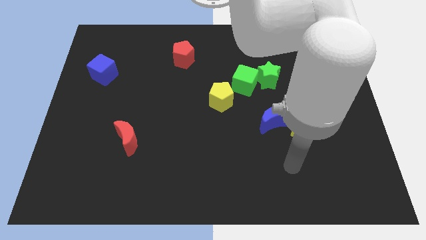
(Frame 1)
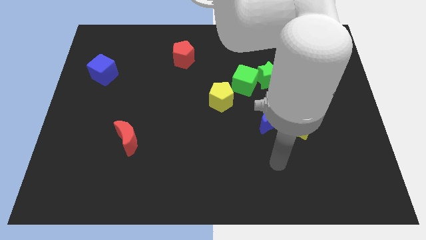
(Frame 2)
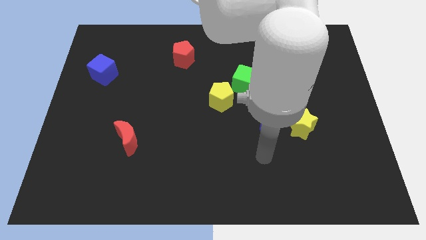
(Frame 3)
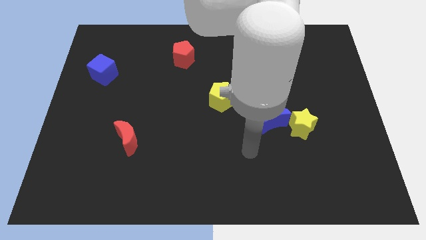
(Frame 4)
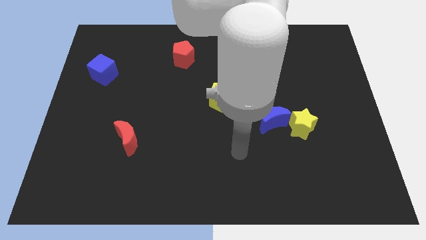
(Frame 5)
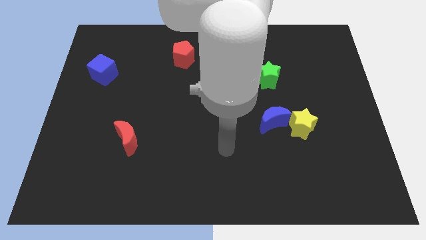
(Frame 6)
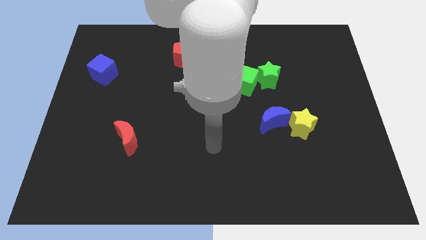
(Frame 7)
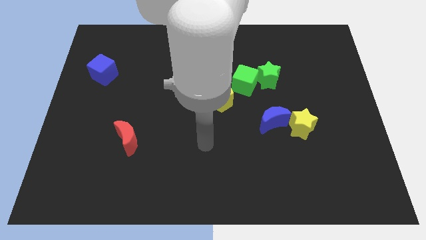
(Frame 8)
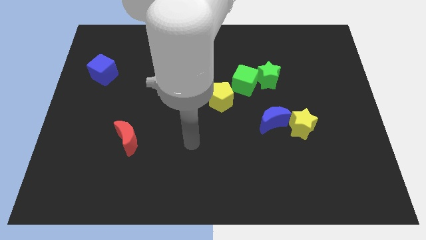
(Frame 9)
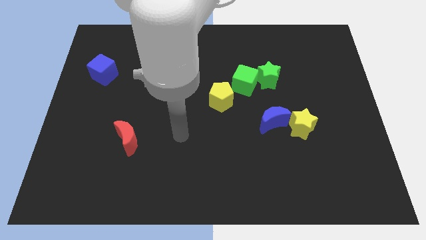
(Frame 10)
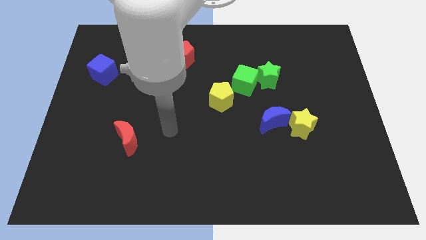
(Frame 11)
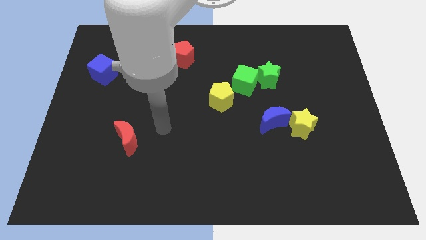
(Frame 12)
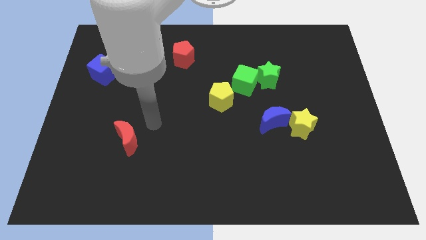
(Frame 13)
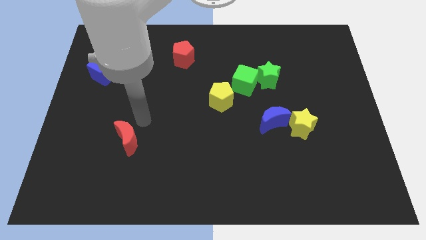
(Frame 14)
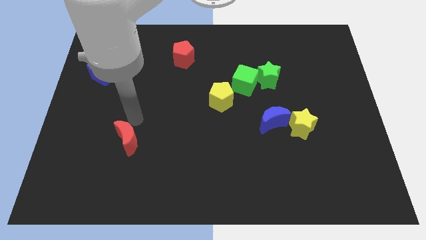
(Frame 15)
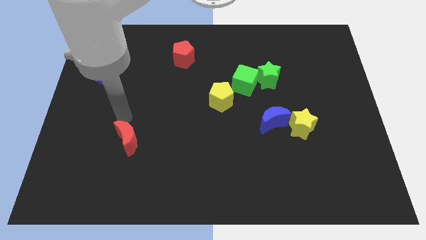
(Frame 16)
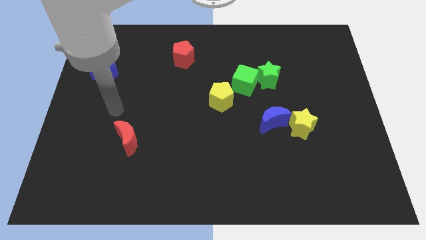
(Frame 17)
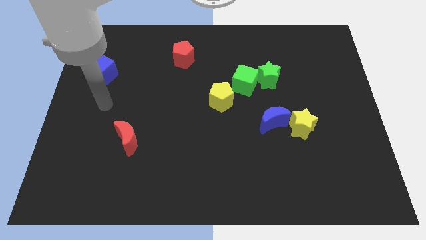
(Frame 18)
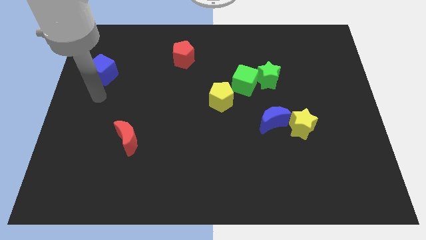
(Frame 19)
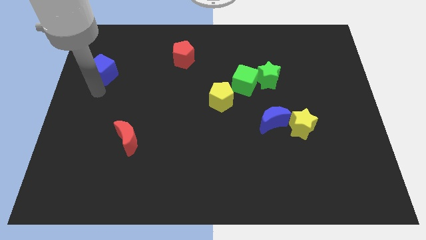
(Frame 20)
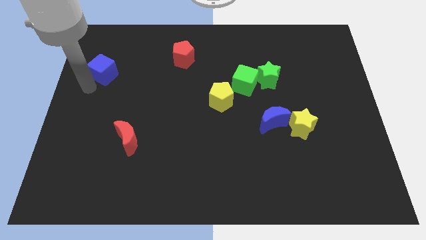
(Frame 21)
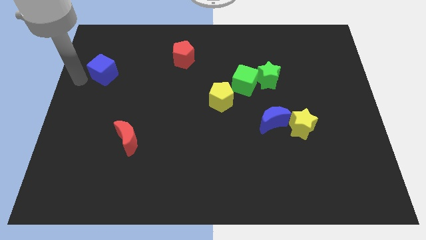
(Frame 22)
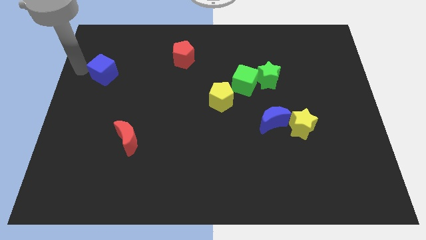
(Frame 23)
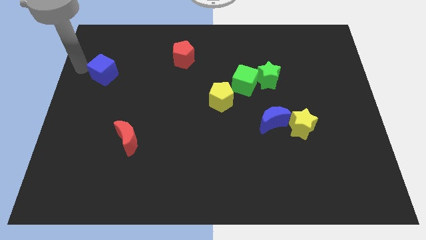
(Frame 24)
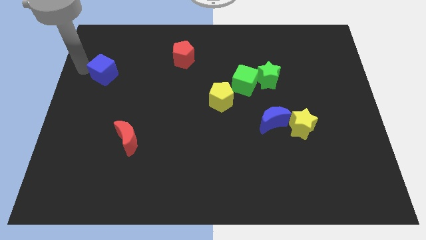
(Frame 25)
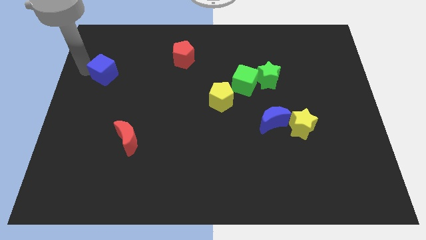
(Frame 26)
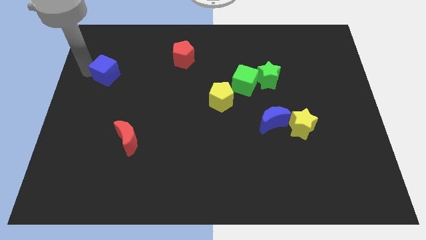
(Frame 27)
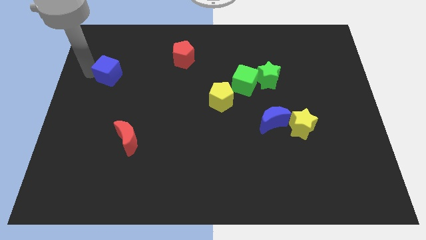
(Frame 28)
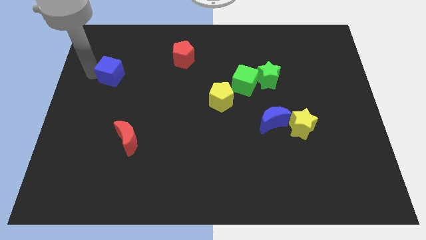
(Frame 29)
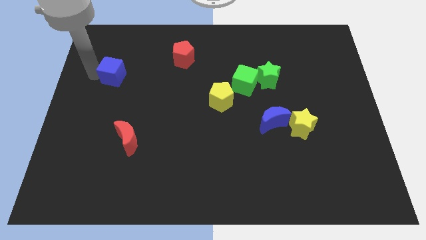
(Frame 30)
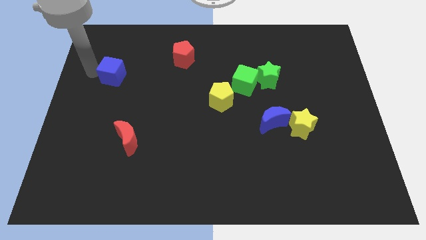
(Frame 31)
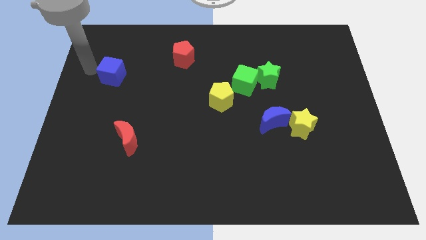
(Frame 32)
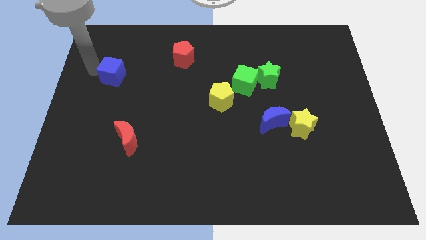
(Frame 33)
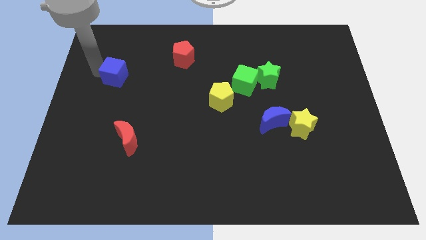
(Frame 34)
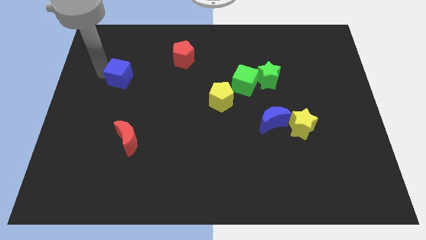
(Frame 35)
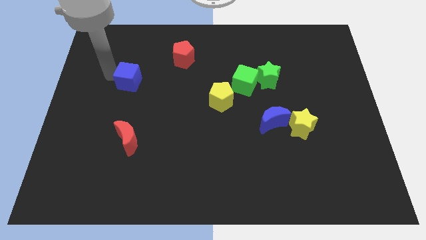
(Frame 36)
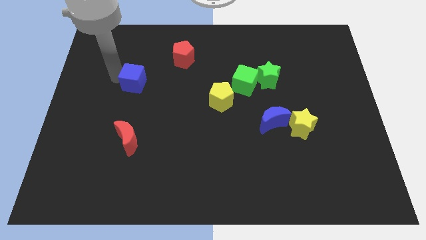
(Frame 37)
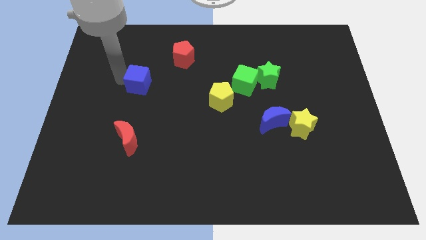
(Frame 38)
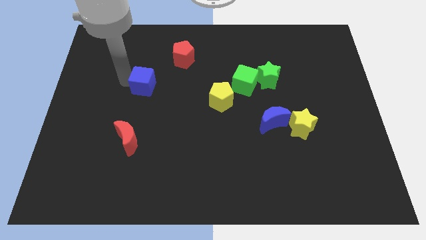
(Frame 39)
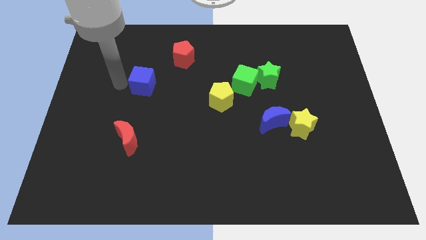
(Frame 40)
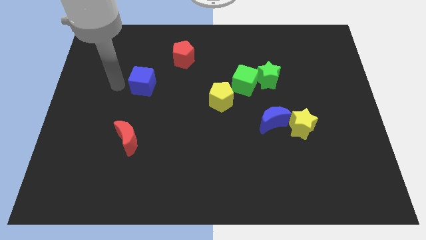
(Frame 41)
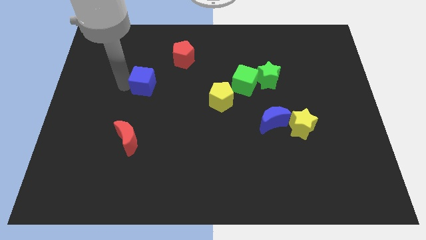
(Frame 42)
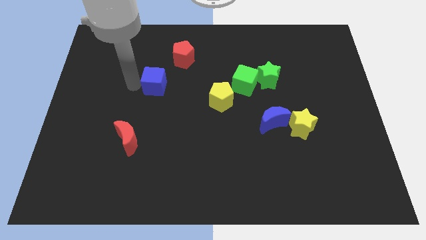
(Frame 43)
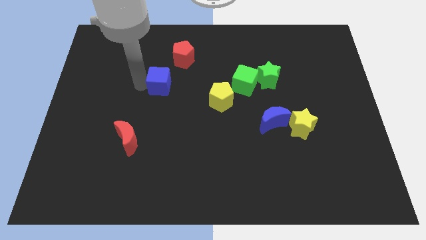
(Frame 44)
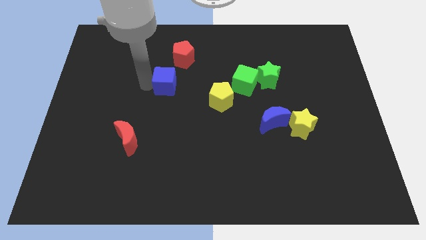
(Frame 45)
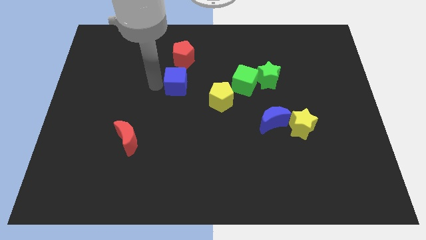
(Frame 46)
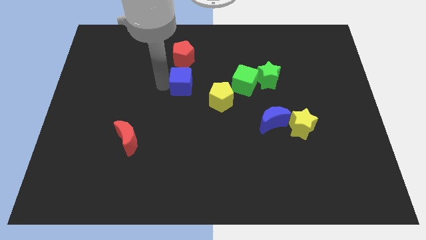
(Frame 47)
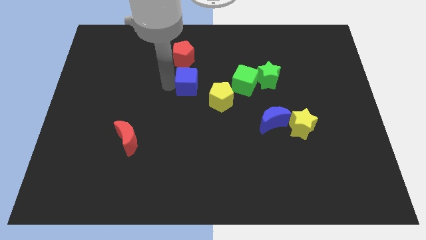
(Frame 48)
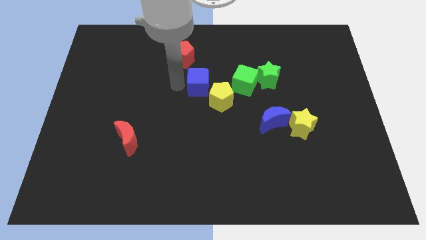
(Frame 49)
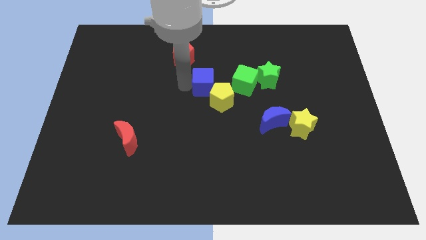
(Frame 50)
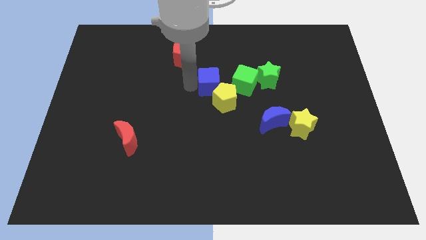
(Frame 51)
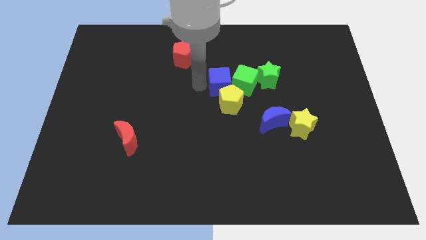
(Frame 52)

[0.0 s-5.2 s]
push the blue cube towards the green cube

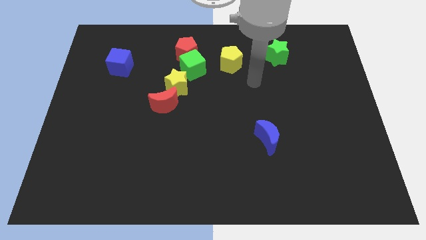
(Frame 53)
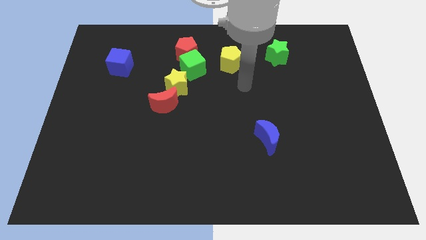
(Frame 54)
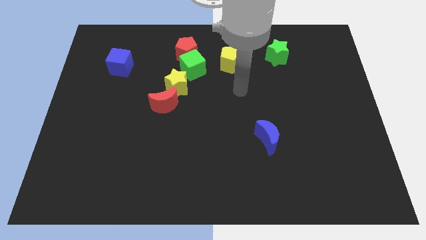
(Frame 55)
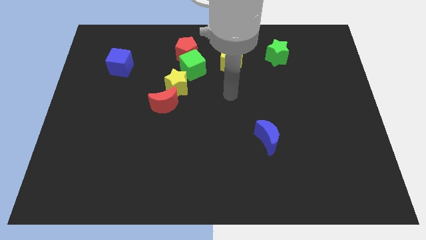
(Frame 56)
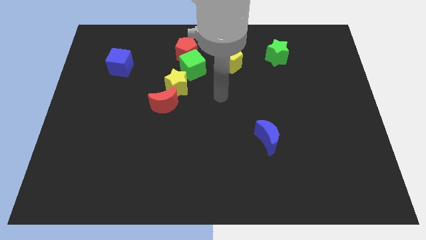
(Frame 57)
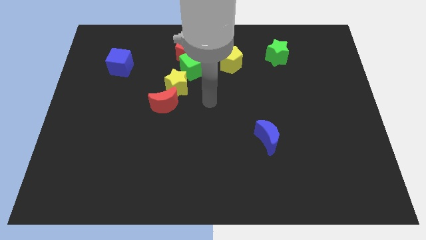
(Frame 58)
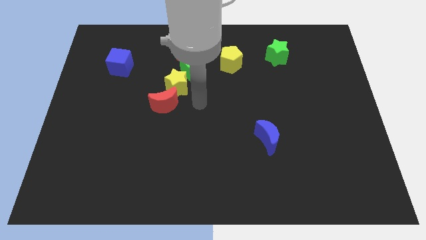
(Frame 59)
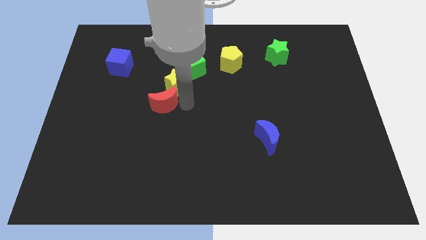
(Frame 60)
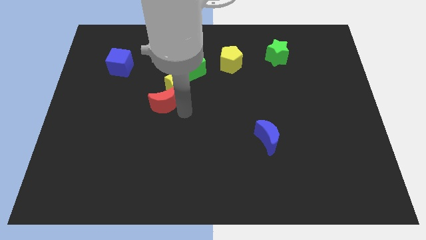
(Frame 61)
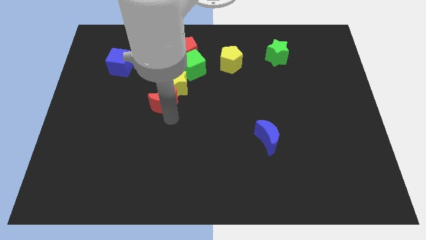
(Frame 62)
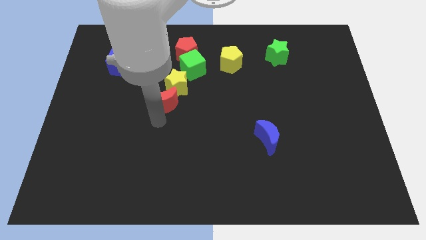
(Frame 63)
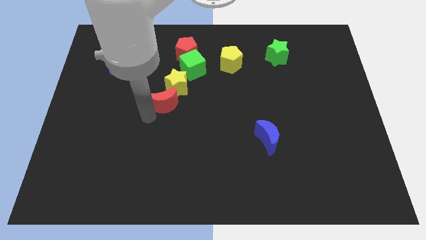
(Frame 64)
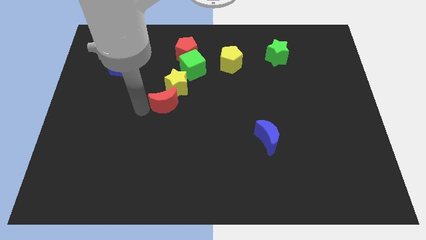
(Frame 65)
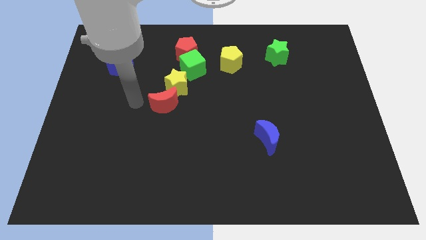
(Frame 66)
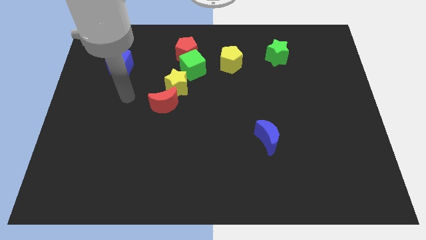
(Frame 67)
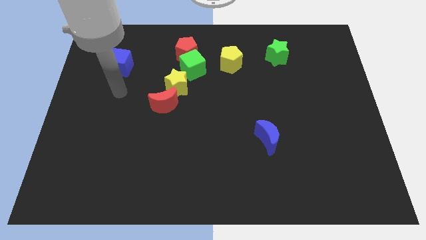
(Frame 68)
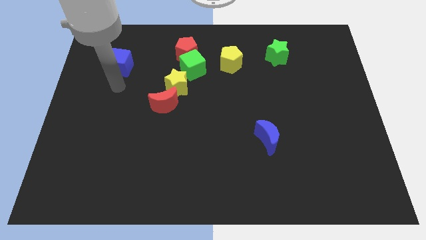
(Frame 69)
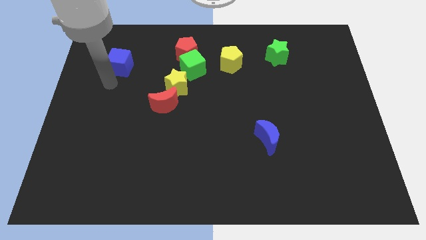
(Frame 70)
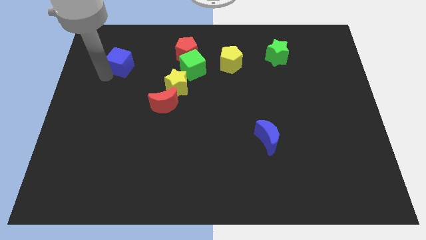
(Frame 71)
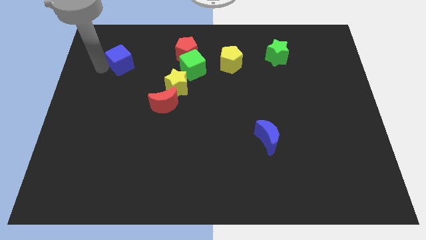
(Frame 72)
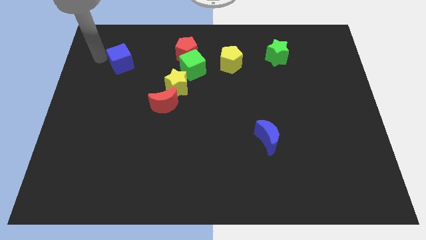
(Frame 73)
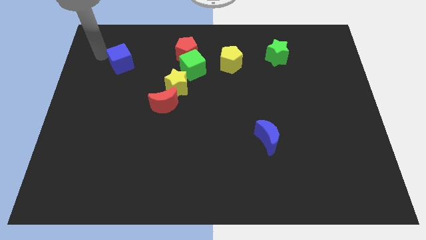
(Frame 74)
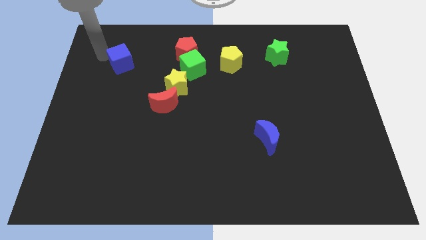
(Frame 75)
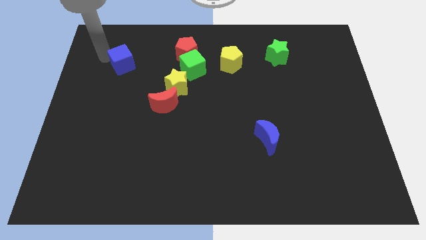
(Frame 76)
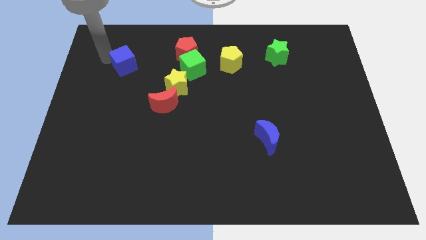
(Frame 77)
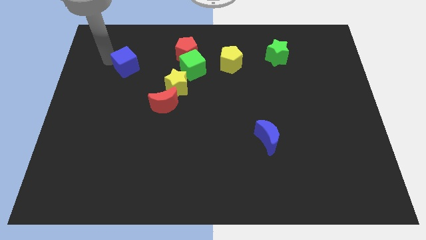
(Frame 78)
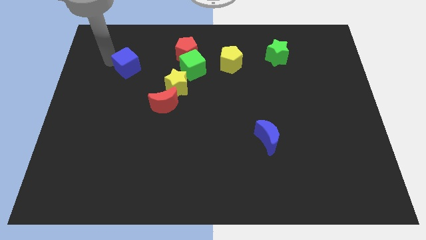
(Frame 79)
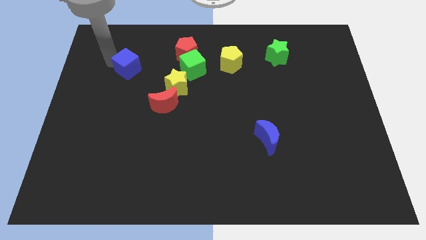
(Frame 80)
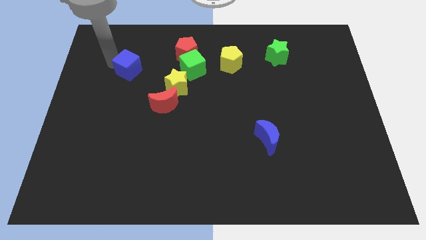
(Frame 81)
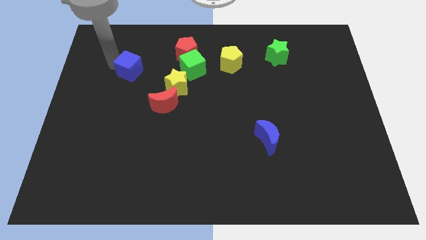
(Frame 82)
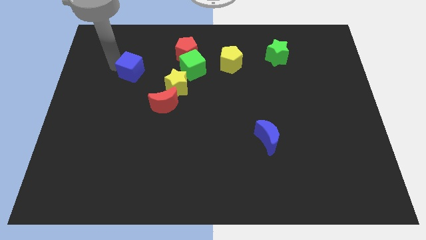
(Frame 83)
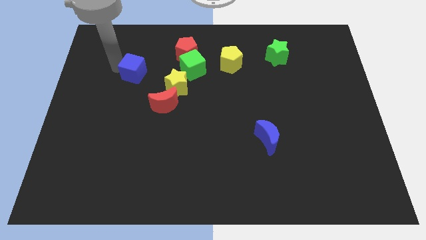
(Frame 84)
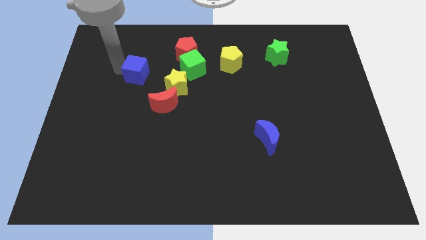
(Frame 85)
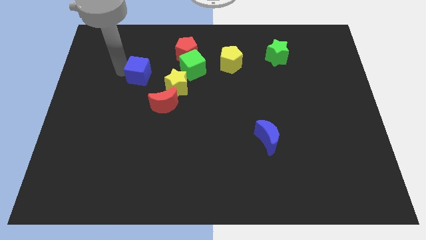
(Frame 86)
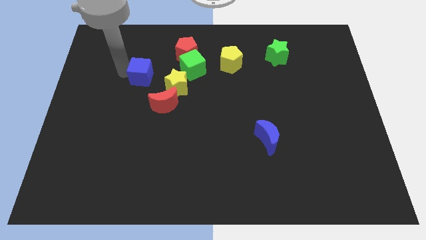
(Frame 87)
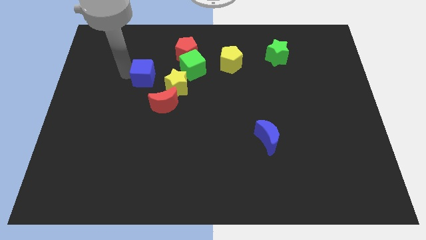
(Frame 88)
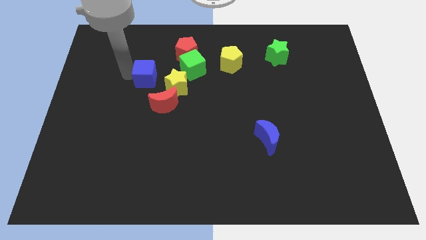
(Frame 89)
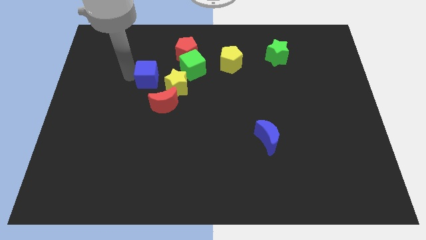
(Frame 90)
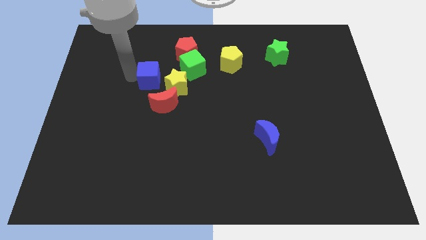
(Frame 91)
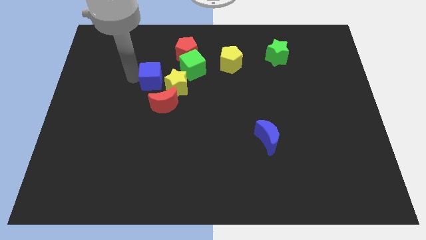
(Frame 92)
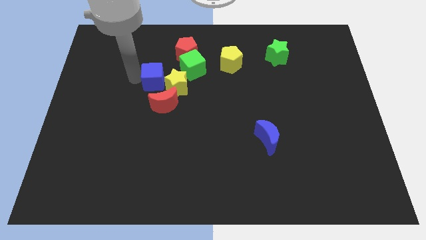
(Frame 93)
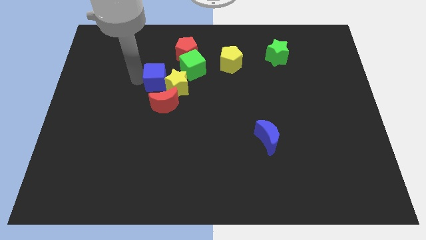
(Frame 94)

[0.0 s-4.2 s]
move the blue cube towards the yellow star
